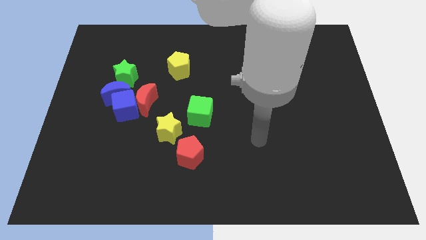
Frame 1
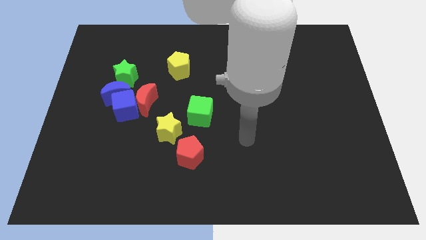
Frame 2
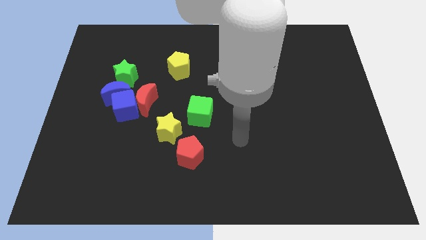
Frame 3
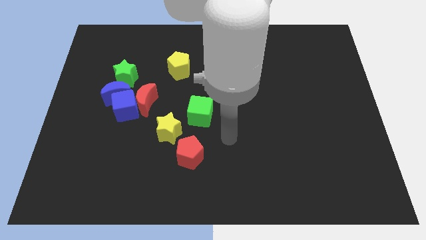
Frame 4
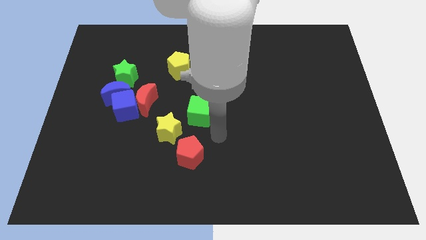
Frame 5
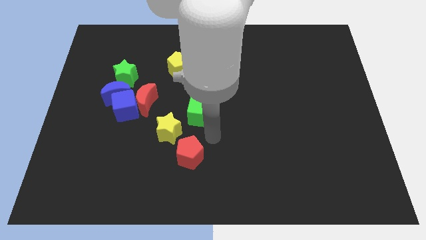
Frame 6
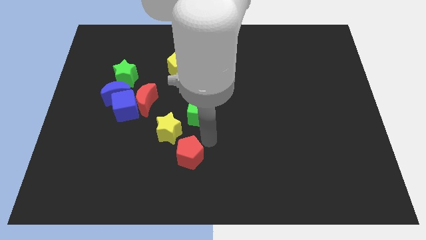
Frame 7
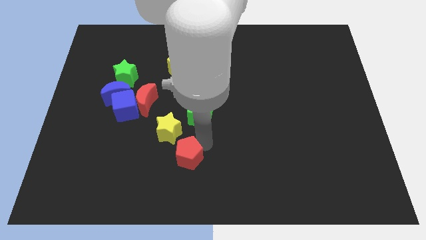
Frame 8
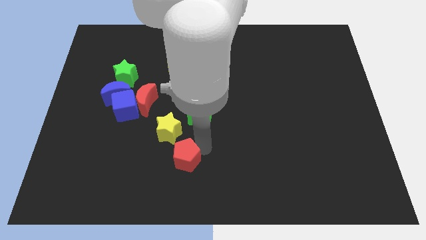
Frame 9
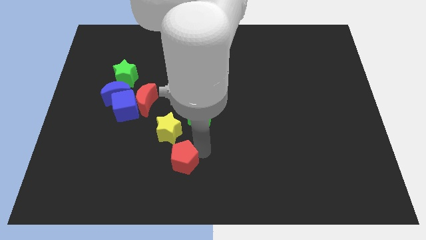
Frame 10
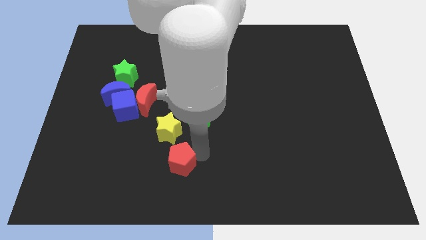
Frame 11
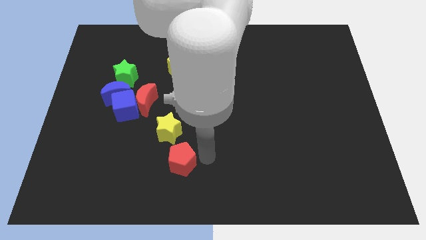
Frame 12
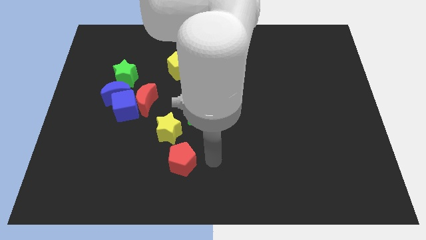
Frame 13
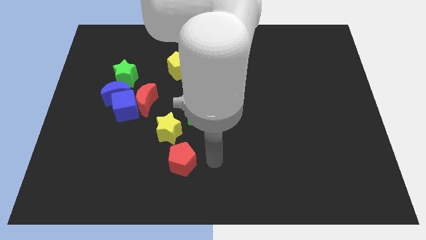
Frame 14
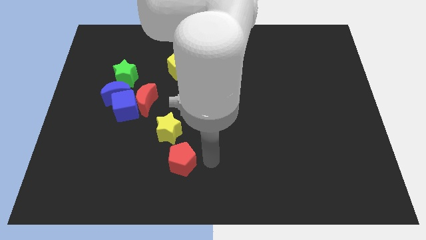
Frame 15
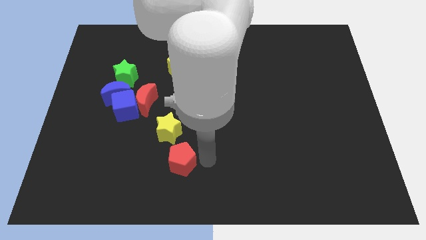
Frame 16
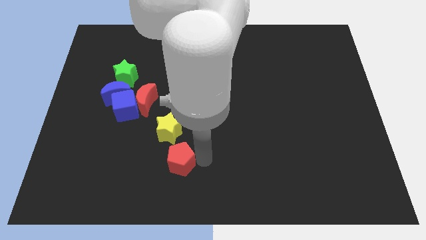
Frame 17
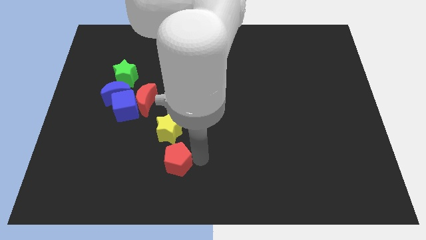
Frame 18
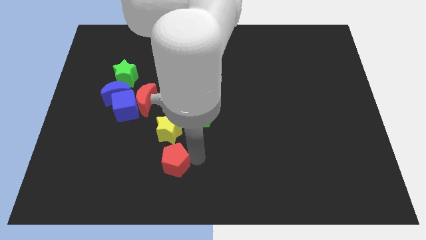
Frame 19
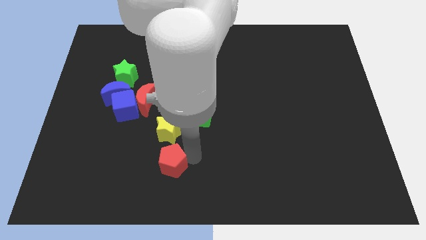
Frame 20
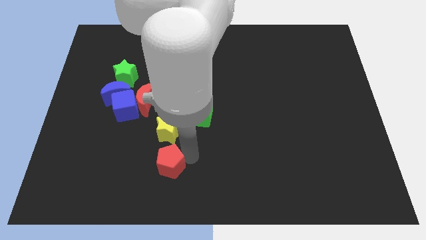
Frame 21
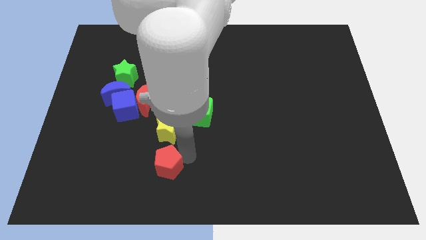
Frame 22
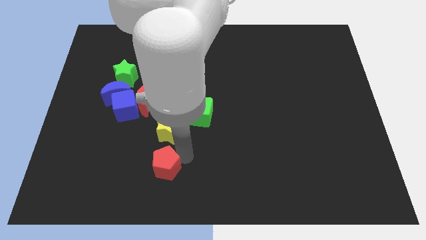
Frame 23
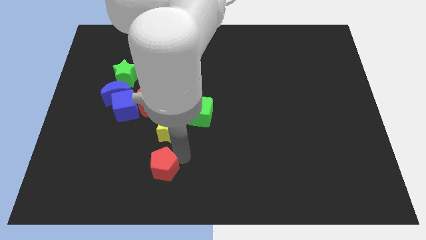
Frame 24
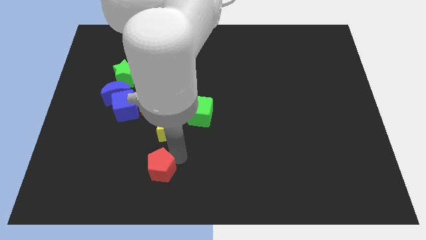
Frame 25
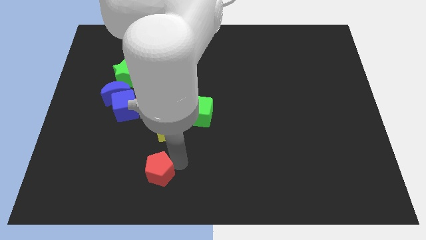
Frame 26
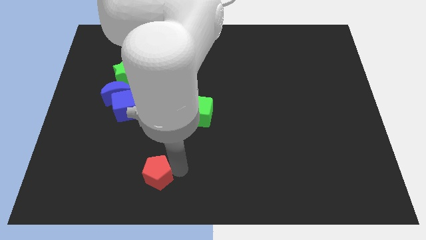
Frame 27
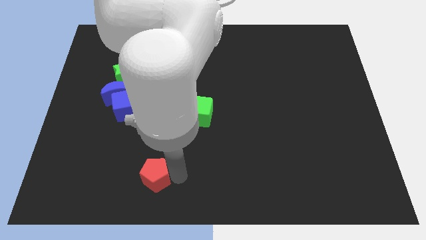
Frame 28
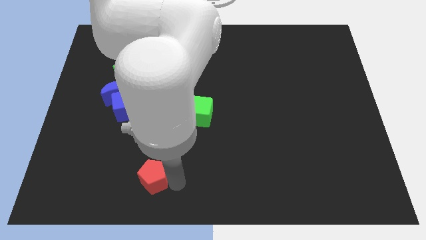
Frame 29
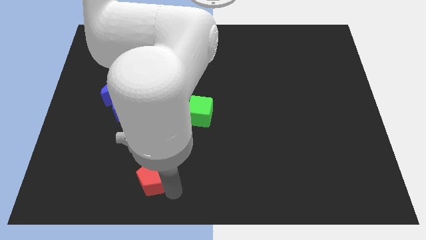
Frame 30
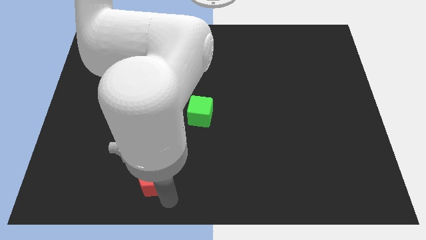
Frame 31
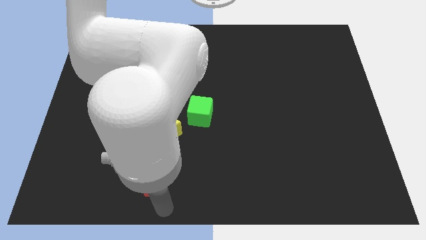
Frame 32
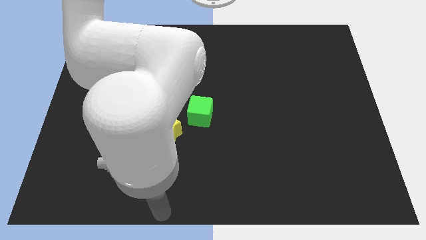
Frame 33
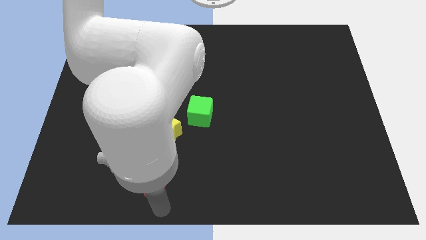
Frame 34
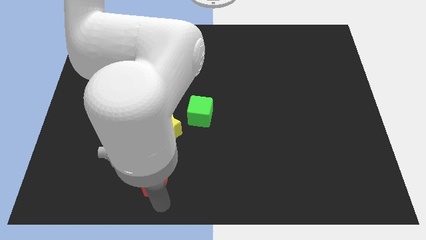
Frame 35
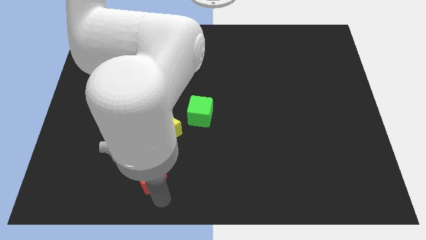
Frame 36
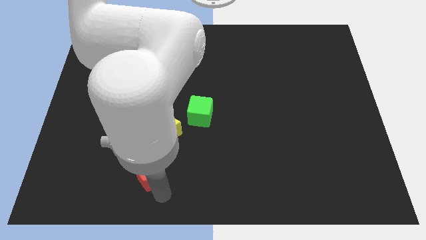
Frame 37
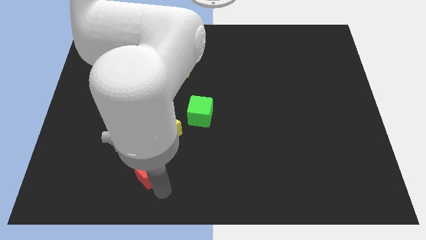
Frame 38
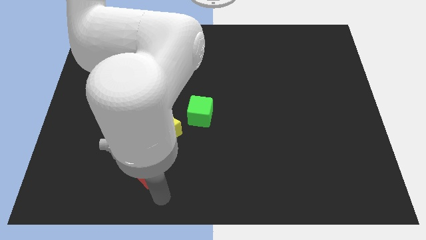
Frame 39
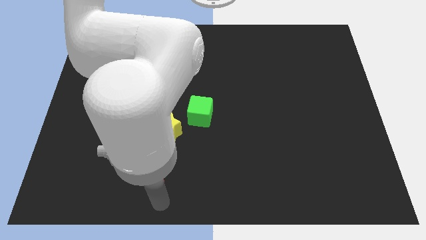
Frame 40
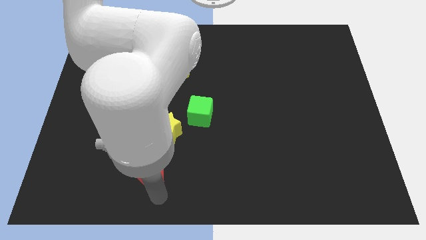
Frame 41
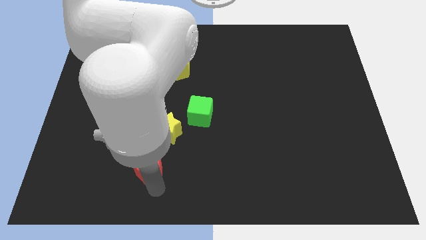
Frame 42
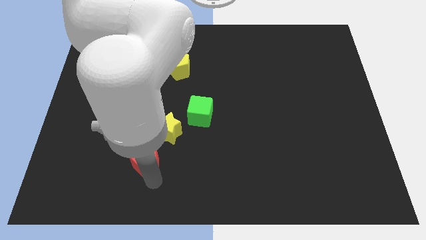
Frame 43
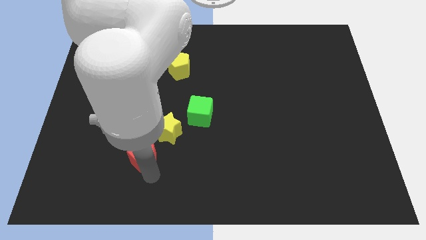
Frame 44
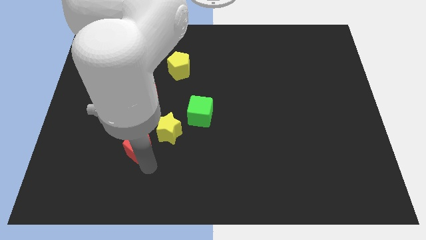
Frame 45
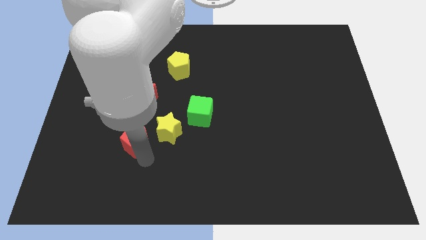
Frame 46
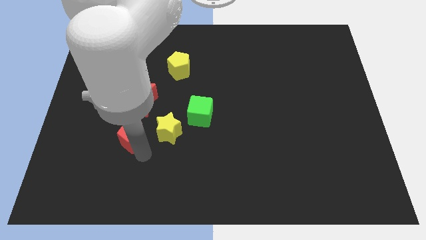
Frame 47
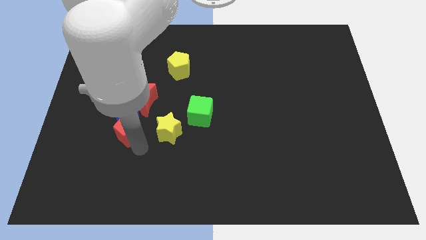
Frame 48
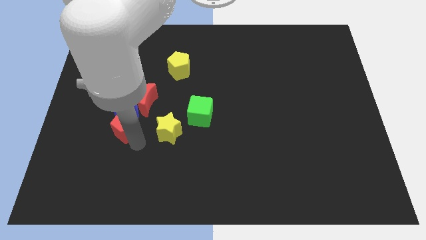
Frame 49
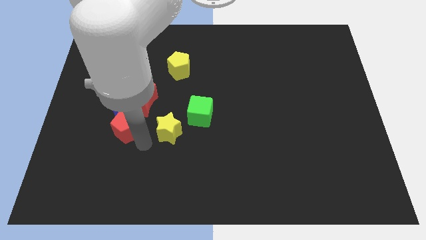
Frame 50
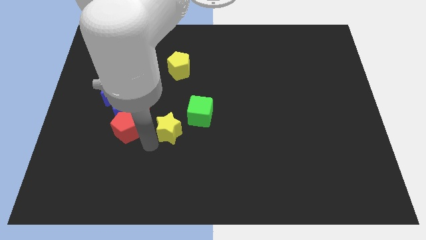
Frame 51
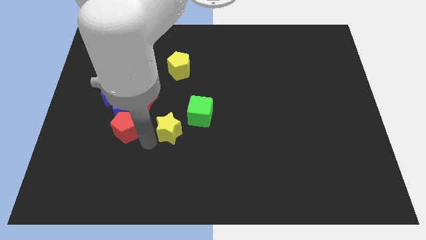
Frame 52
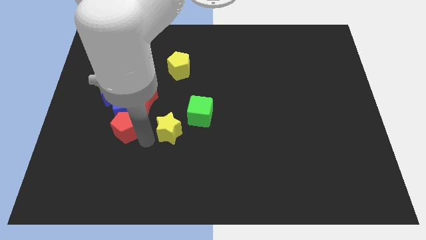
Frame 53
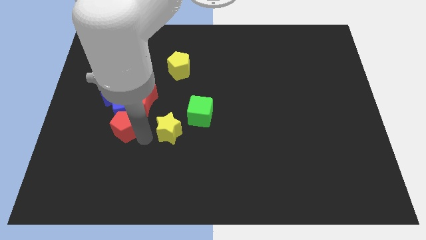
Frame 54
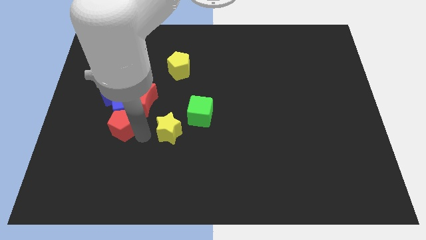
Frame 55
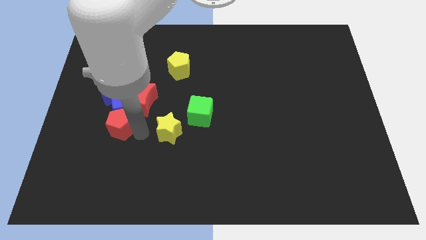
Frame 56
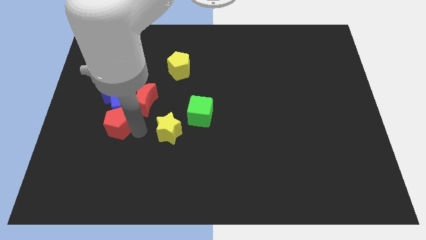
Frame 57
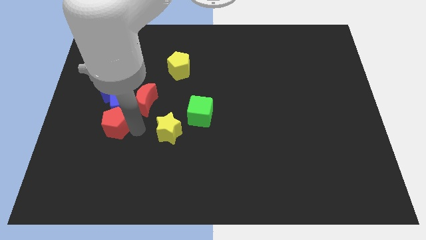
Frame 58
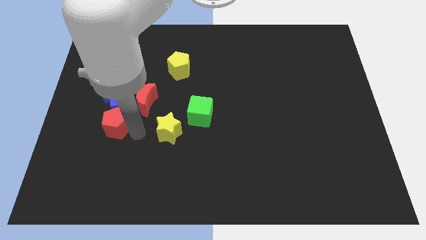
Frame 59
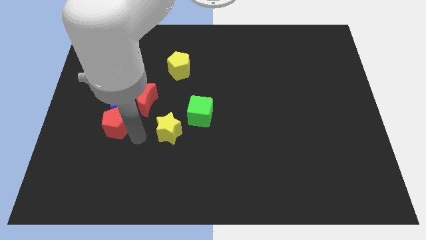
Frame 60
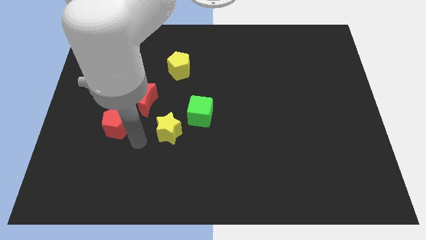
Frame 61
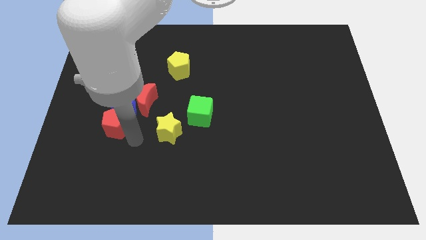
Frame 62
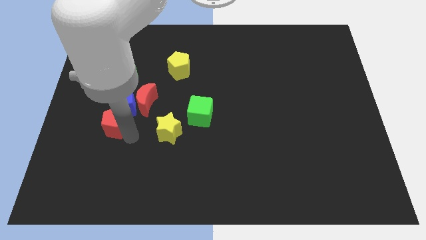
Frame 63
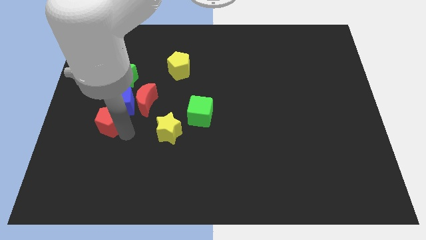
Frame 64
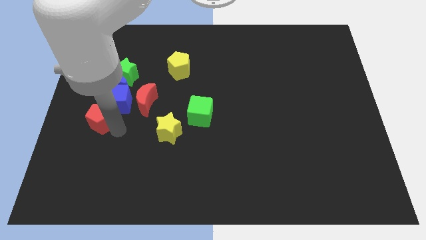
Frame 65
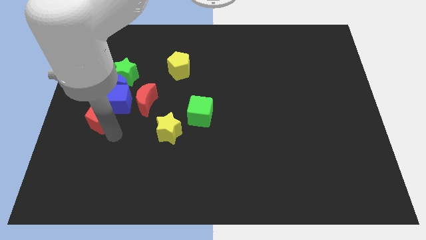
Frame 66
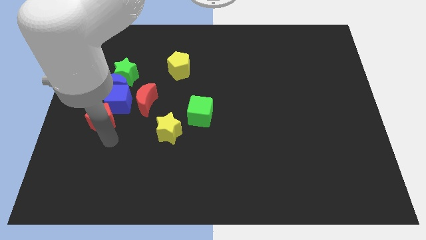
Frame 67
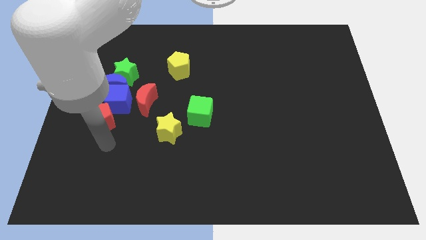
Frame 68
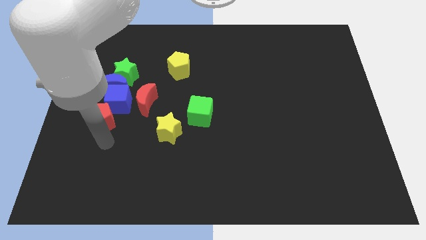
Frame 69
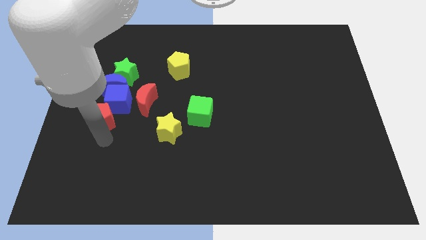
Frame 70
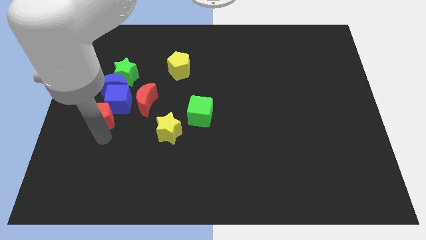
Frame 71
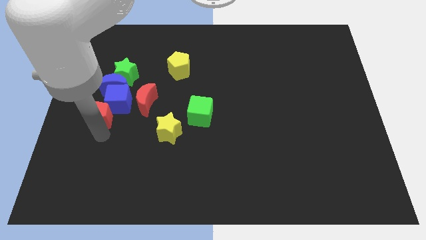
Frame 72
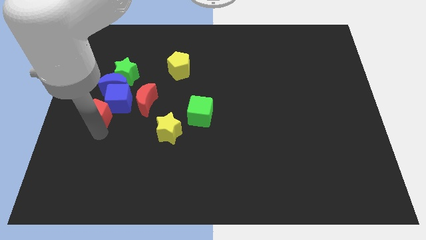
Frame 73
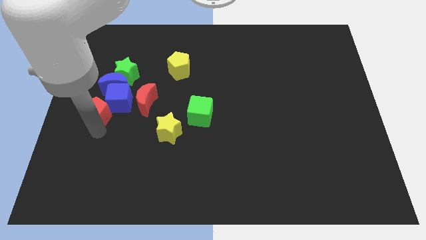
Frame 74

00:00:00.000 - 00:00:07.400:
slide the red pentagon up and then left

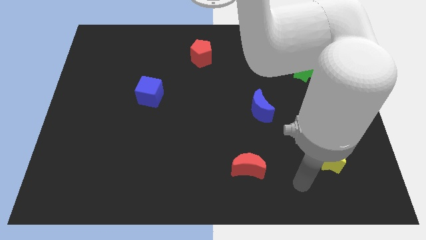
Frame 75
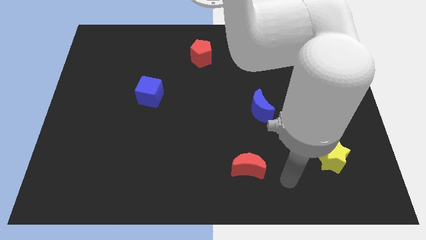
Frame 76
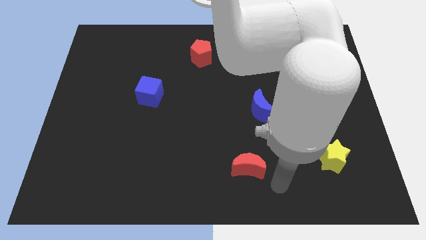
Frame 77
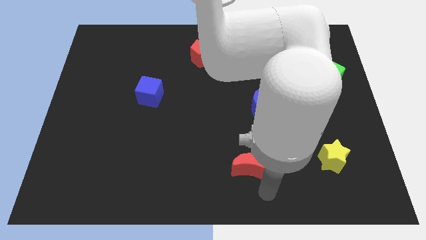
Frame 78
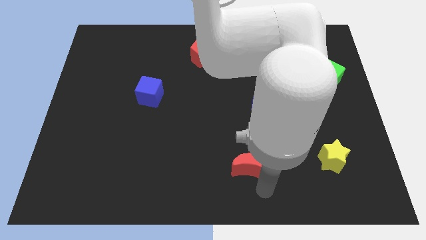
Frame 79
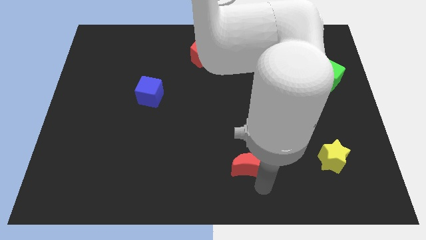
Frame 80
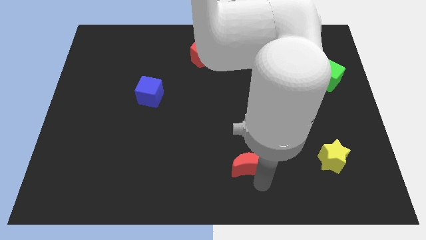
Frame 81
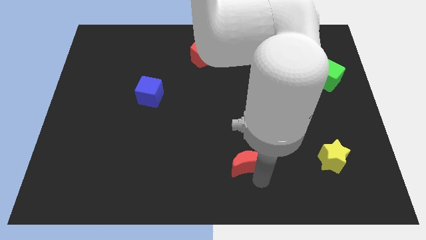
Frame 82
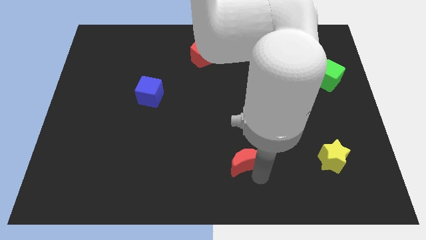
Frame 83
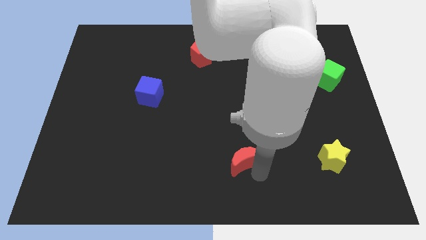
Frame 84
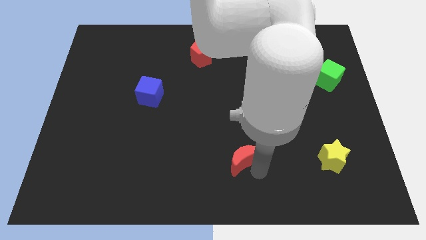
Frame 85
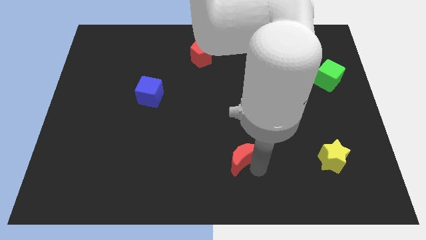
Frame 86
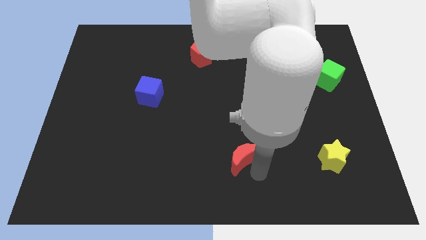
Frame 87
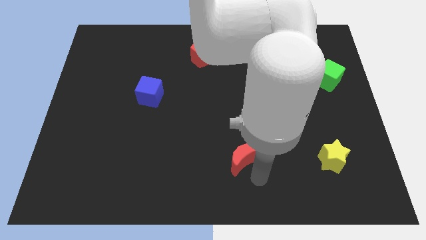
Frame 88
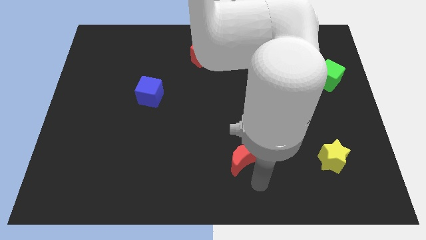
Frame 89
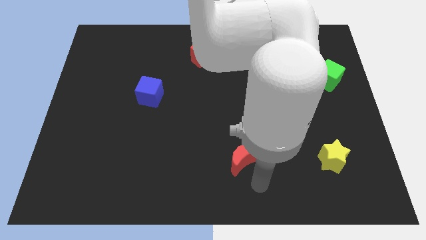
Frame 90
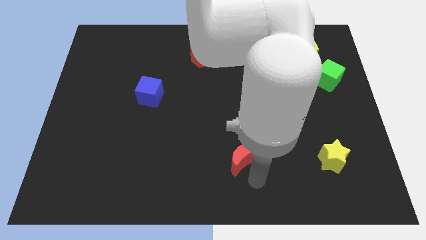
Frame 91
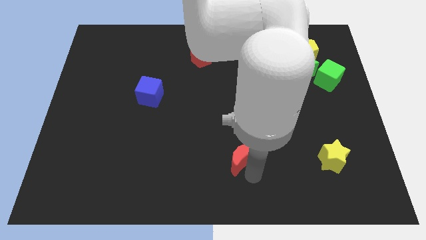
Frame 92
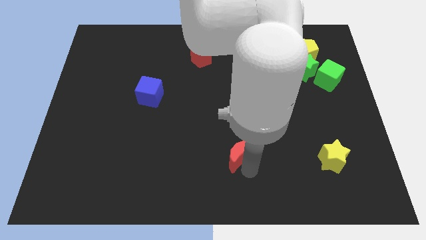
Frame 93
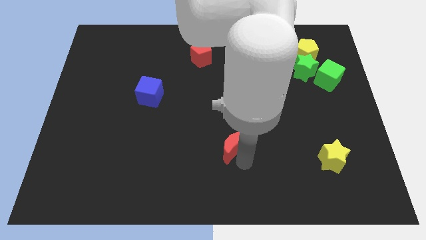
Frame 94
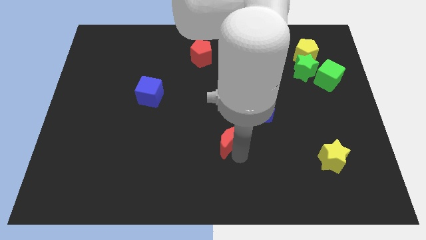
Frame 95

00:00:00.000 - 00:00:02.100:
push the red moon upwards and then left a bit
